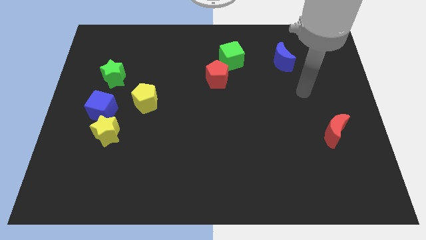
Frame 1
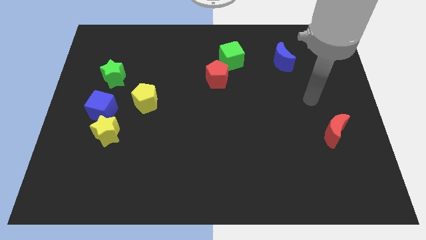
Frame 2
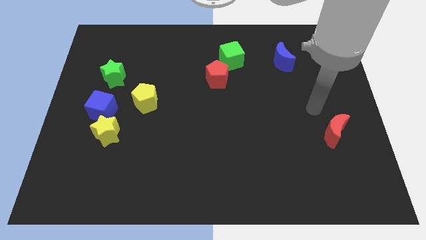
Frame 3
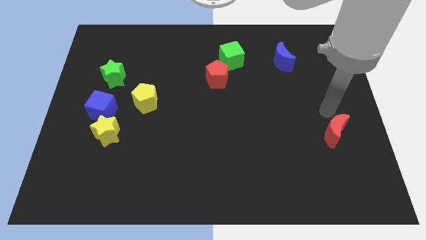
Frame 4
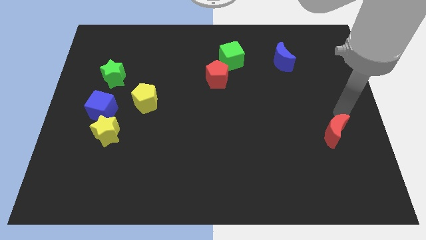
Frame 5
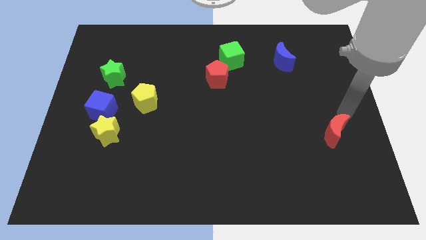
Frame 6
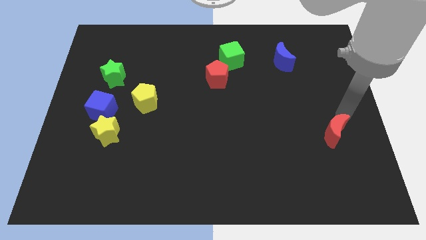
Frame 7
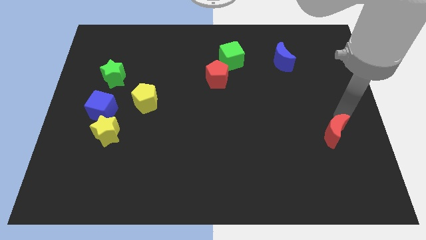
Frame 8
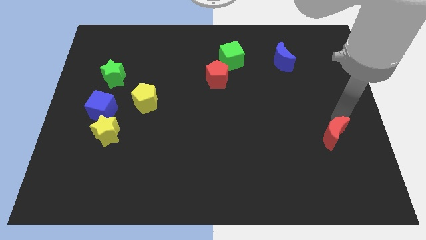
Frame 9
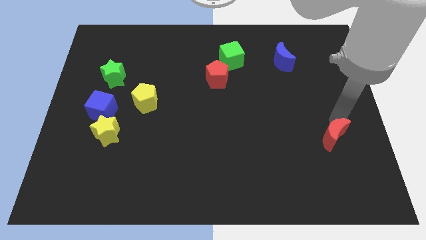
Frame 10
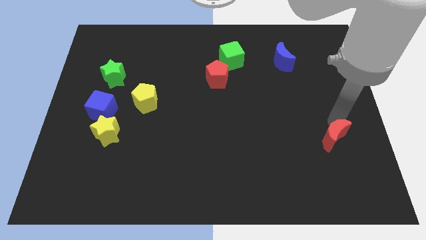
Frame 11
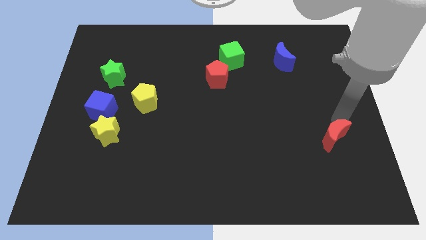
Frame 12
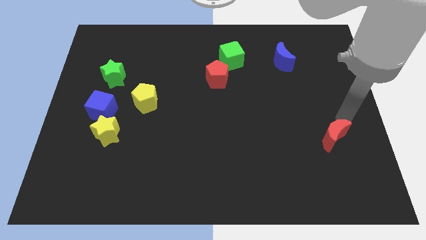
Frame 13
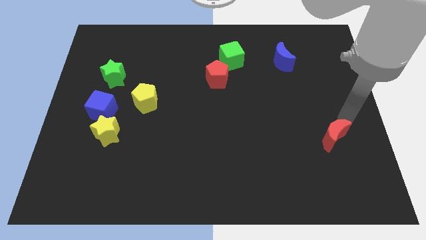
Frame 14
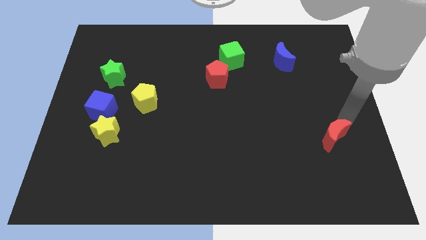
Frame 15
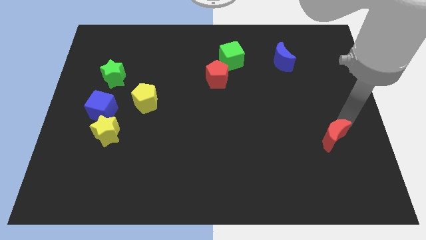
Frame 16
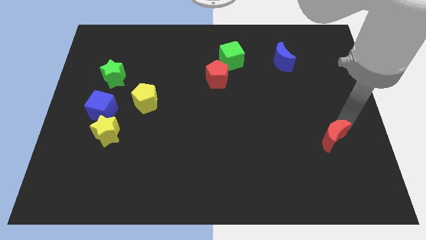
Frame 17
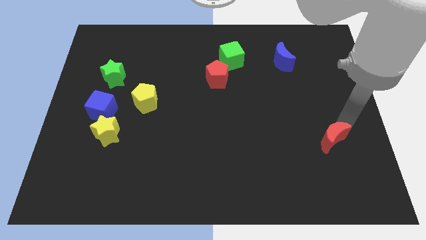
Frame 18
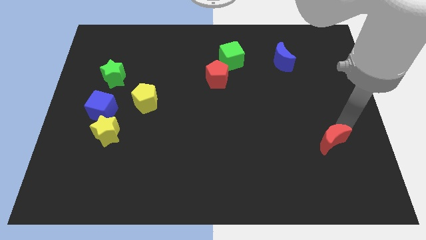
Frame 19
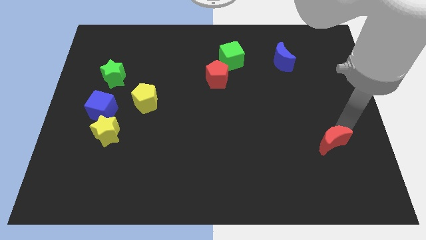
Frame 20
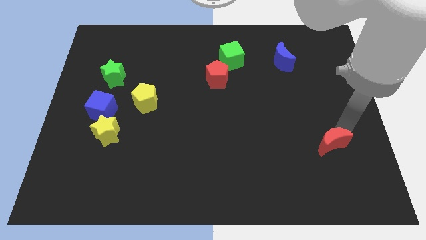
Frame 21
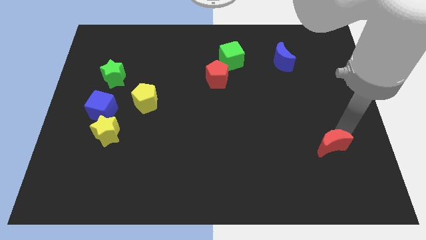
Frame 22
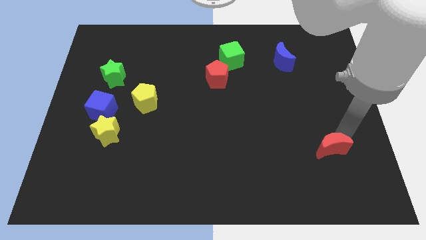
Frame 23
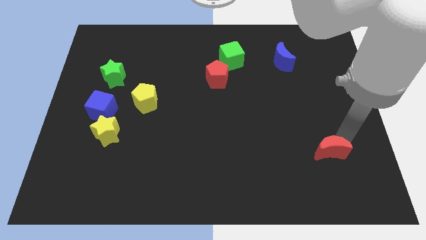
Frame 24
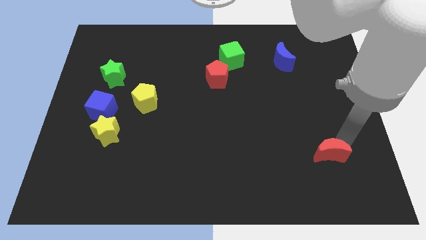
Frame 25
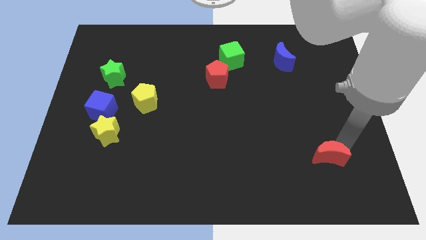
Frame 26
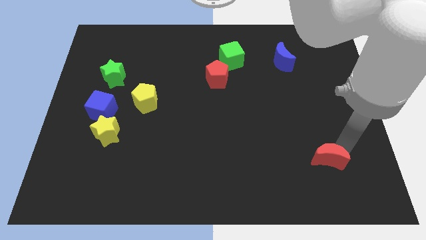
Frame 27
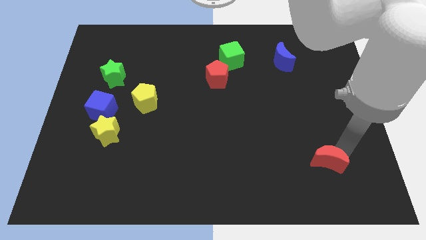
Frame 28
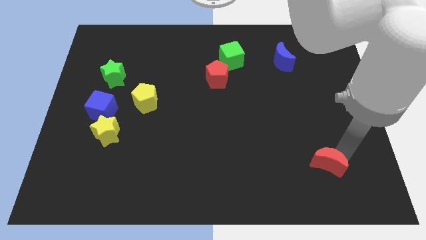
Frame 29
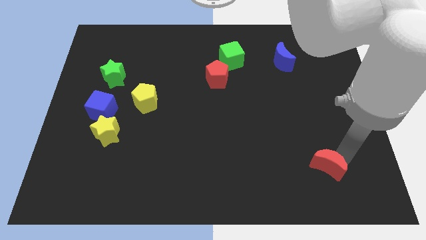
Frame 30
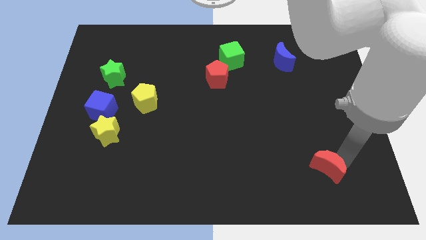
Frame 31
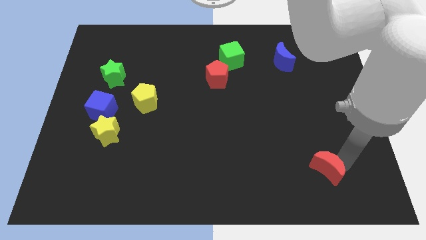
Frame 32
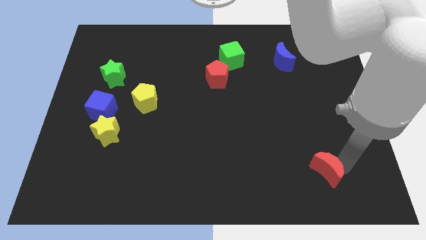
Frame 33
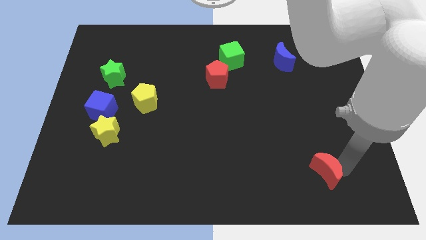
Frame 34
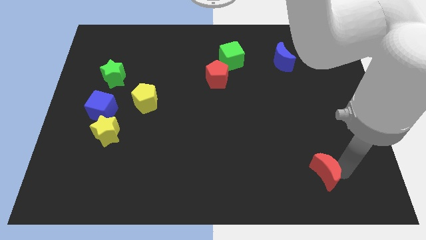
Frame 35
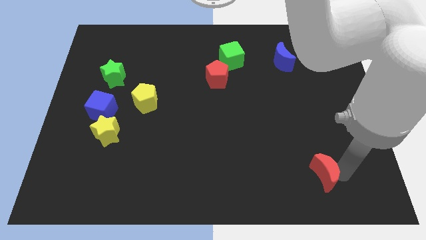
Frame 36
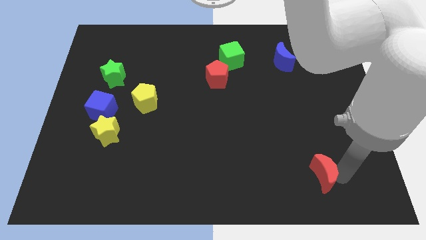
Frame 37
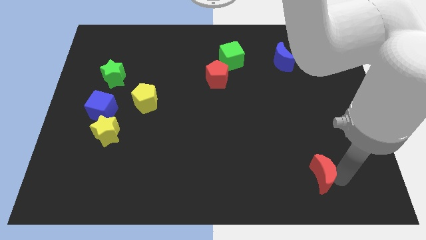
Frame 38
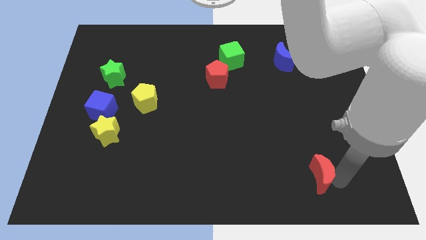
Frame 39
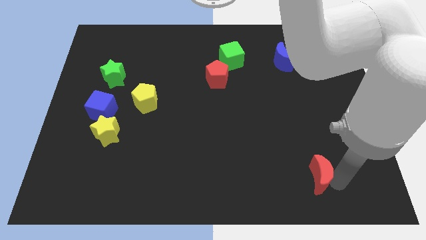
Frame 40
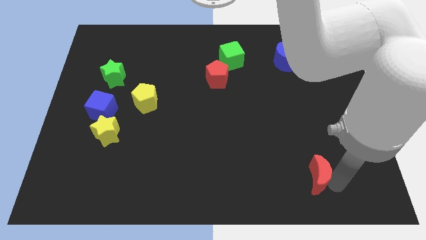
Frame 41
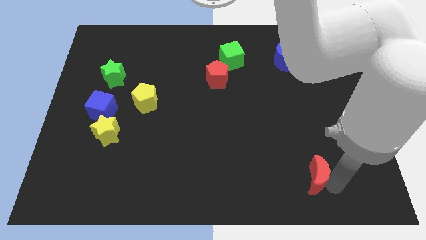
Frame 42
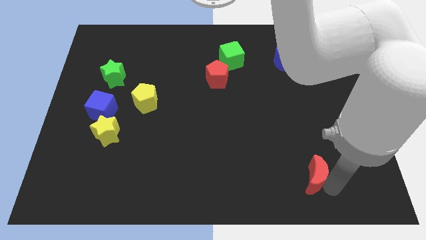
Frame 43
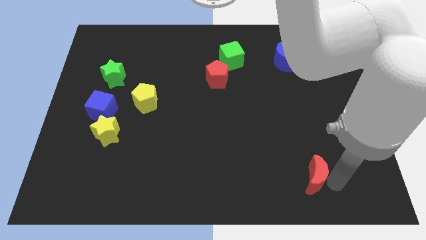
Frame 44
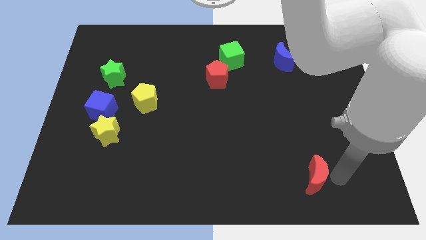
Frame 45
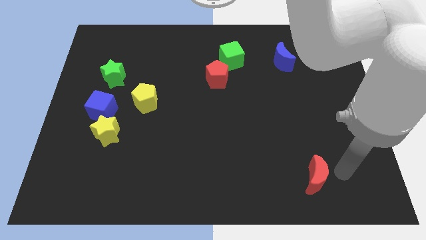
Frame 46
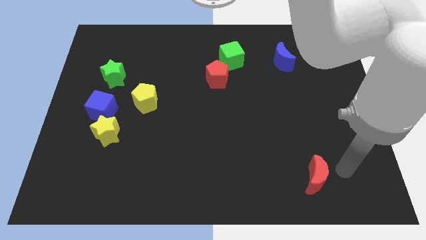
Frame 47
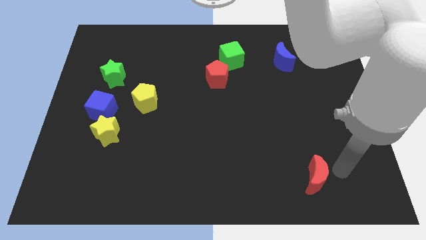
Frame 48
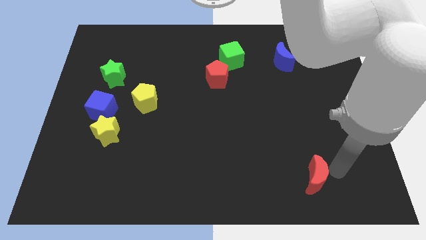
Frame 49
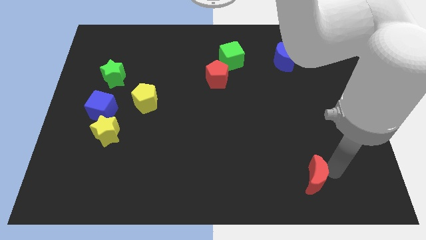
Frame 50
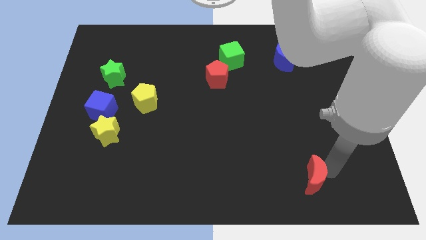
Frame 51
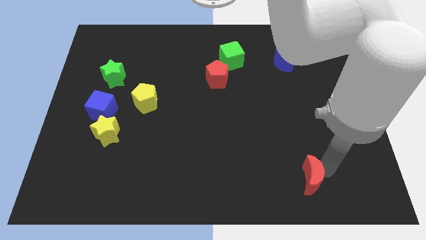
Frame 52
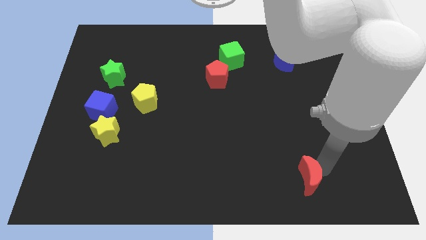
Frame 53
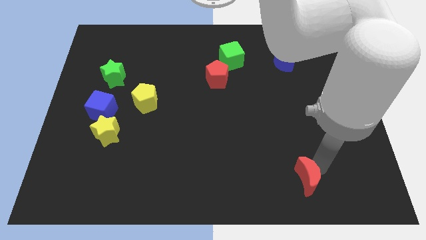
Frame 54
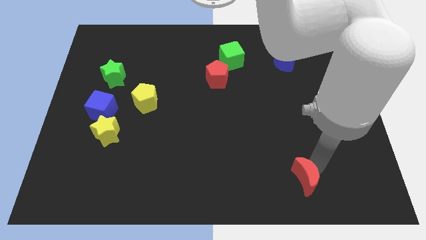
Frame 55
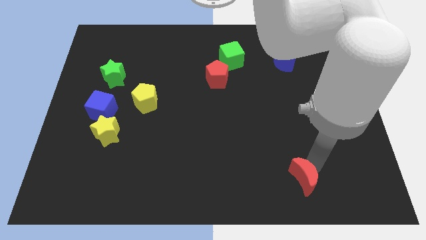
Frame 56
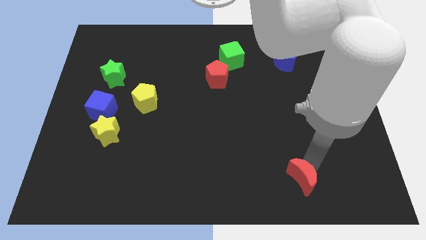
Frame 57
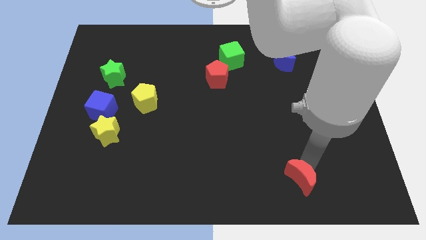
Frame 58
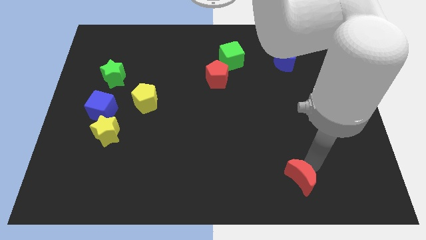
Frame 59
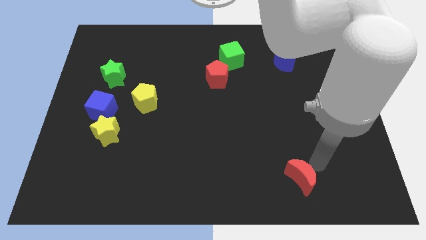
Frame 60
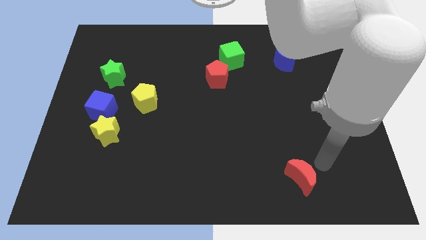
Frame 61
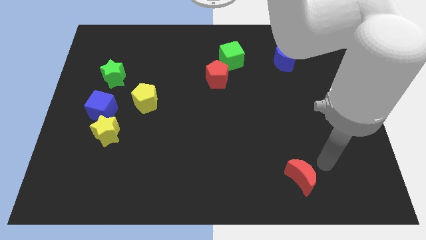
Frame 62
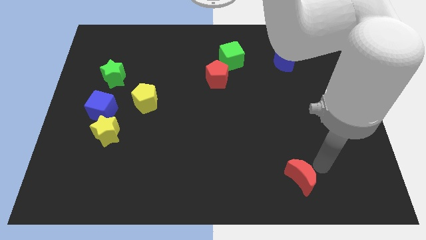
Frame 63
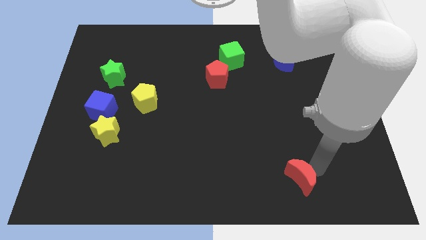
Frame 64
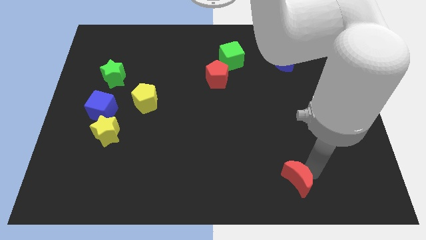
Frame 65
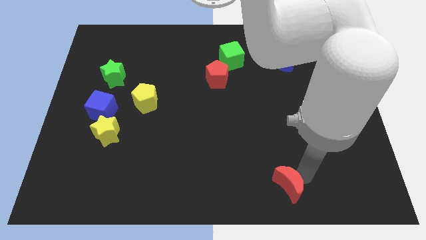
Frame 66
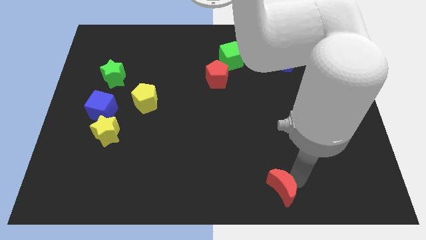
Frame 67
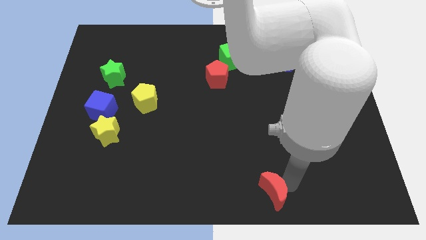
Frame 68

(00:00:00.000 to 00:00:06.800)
move the red moon to the bottom side
